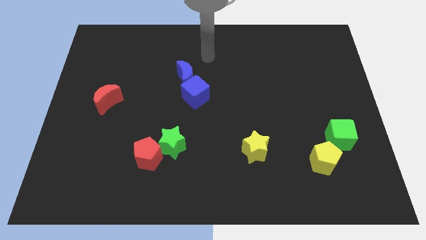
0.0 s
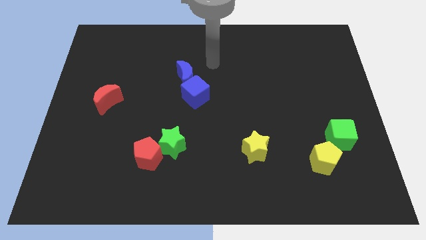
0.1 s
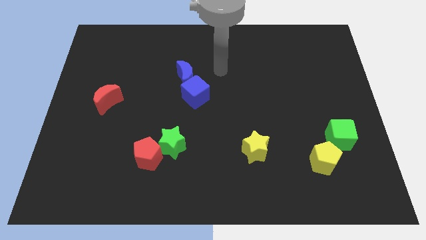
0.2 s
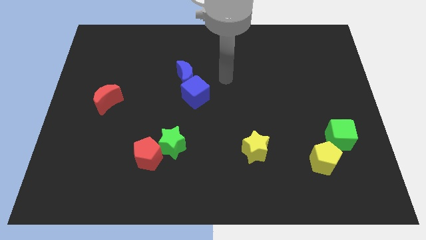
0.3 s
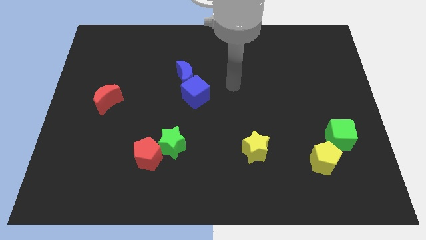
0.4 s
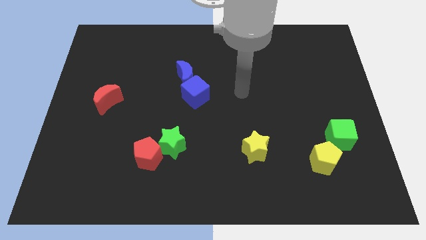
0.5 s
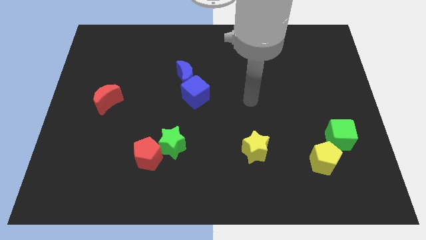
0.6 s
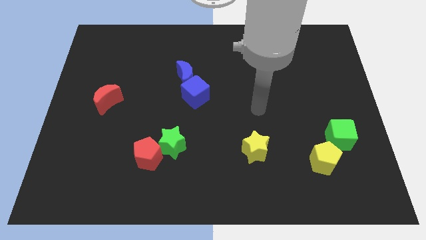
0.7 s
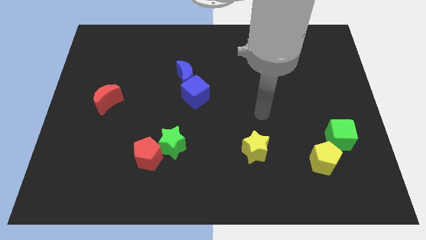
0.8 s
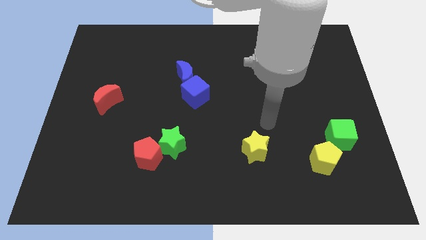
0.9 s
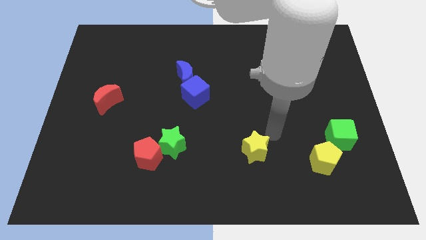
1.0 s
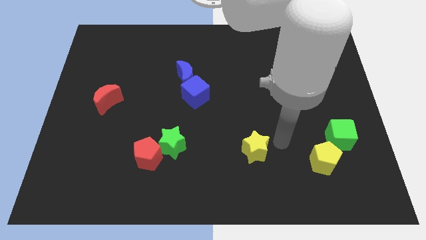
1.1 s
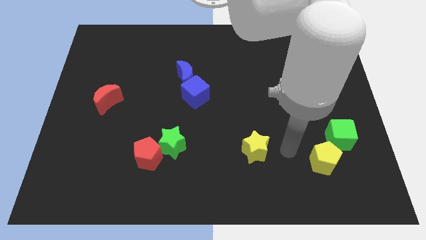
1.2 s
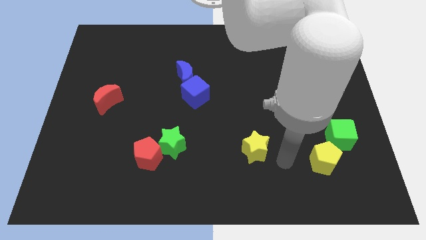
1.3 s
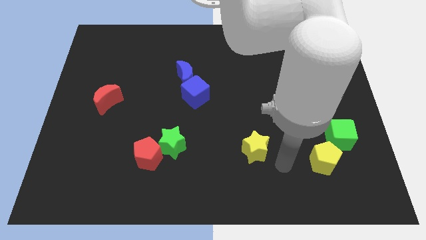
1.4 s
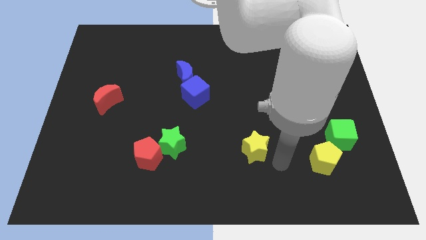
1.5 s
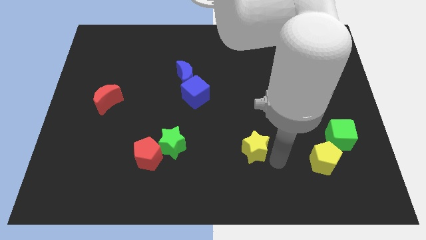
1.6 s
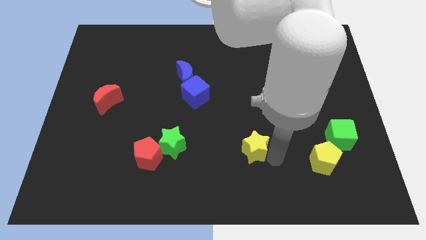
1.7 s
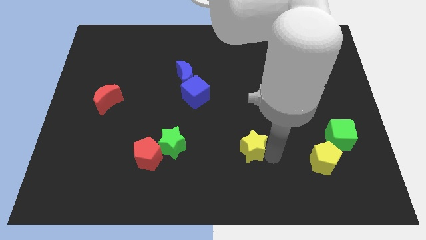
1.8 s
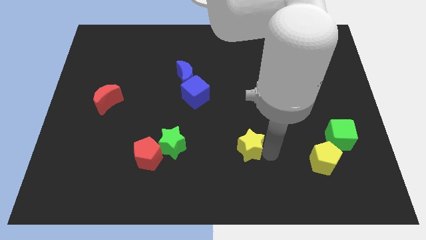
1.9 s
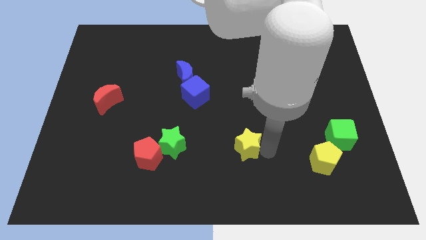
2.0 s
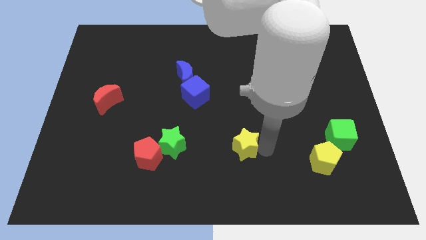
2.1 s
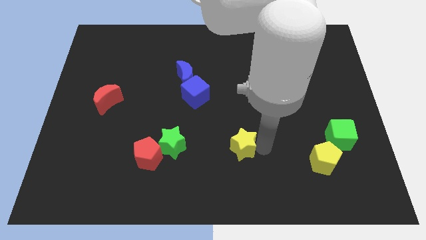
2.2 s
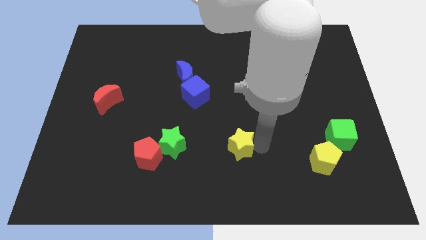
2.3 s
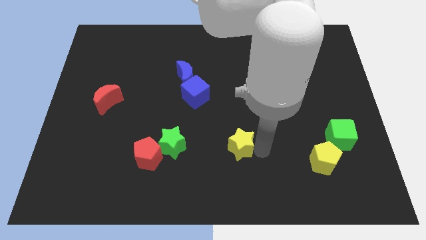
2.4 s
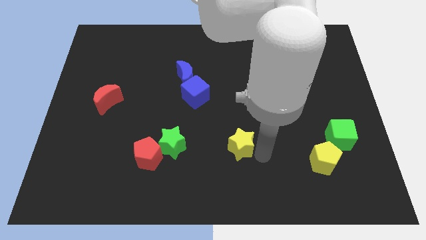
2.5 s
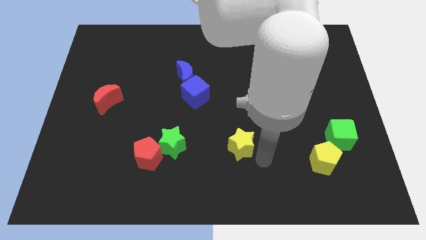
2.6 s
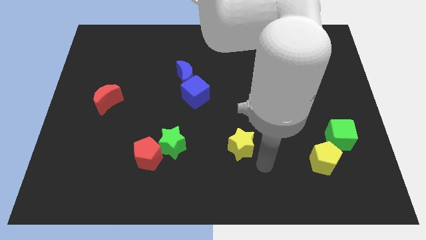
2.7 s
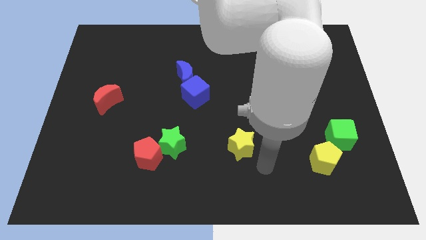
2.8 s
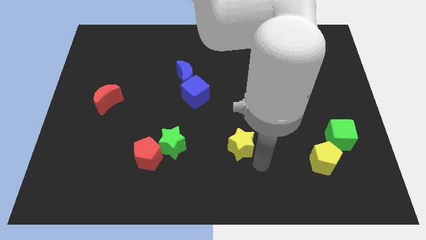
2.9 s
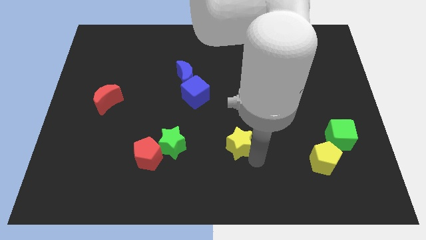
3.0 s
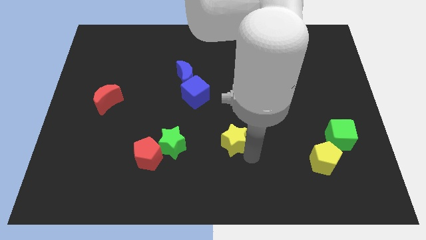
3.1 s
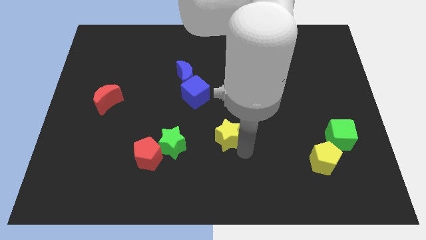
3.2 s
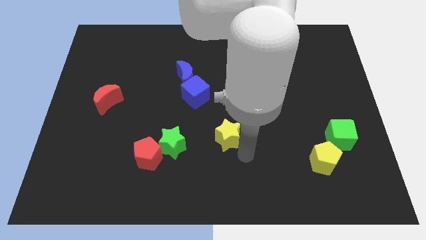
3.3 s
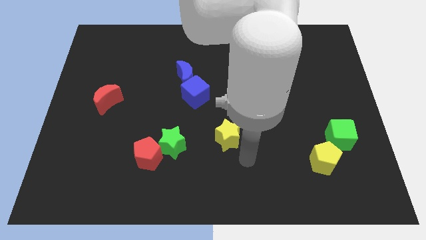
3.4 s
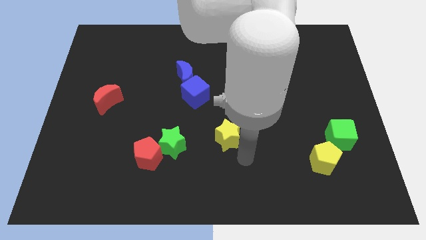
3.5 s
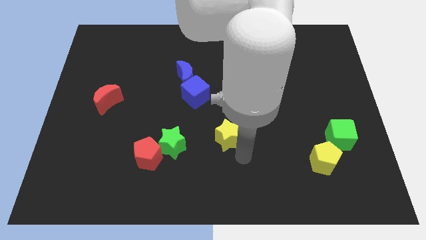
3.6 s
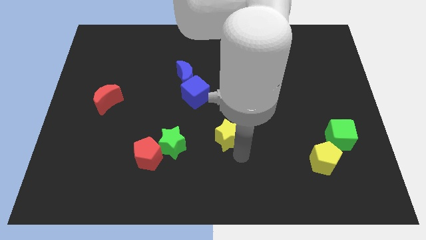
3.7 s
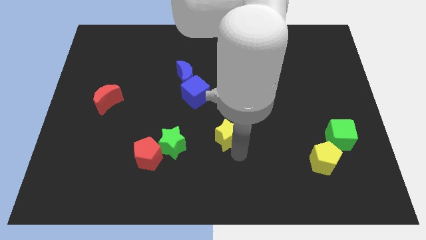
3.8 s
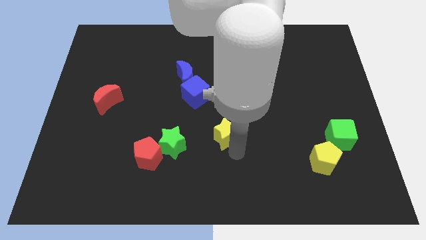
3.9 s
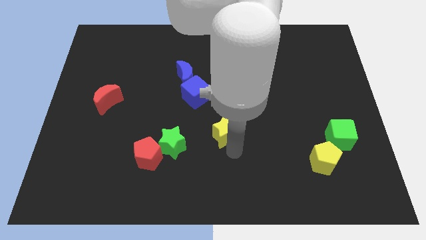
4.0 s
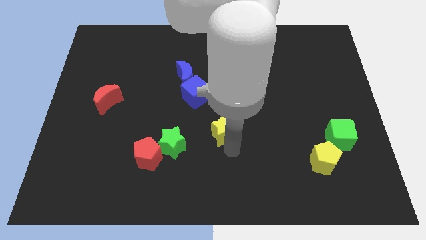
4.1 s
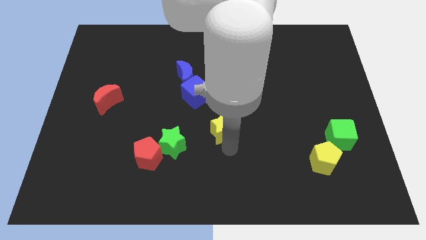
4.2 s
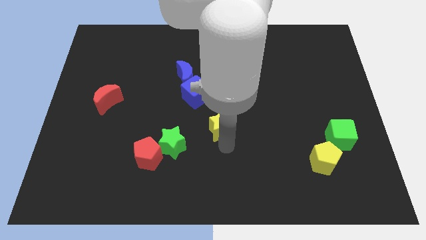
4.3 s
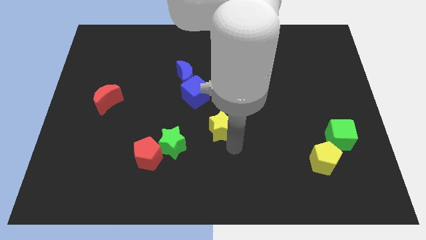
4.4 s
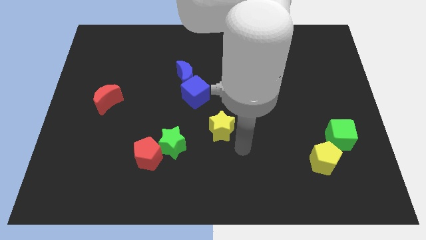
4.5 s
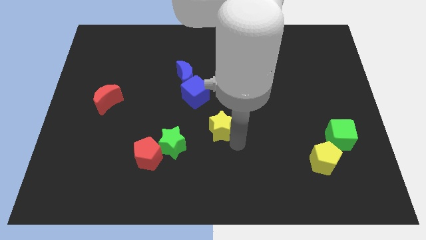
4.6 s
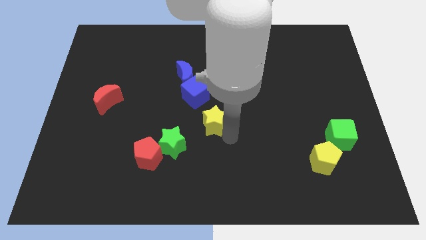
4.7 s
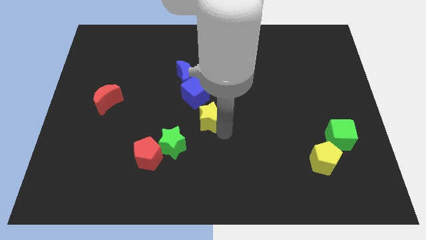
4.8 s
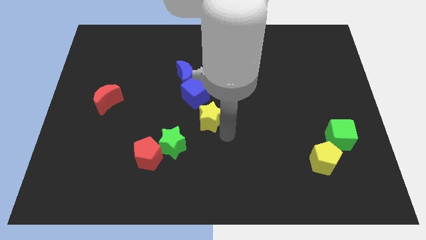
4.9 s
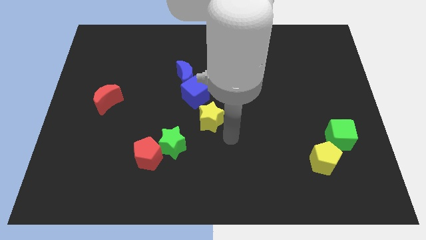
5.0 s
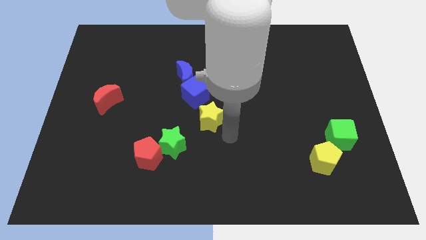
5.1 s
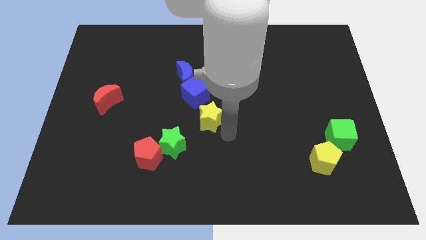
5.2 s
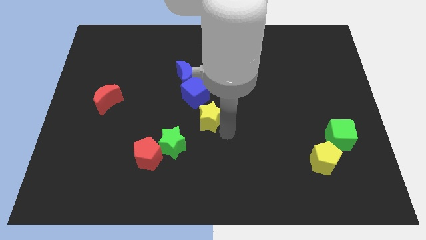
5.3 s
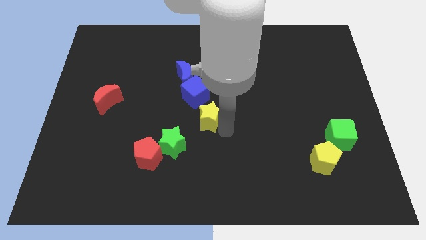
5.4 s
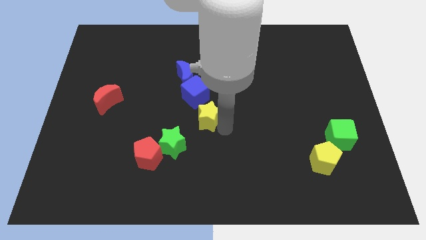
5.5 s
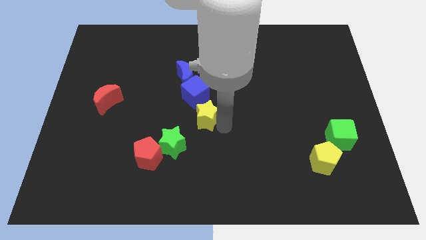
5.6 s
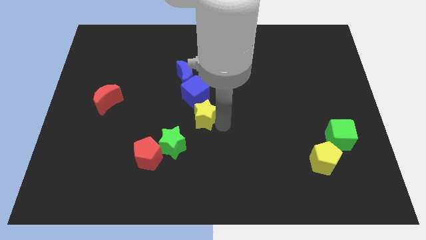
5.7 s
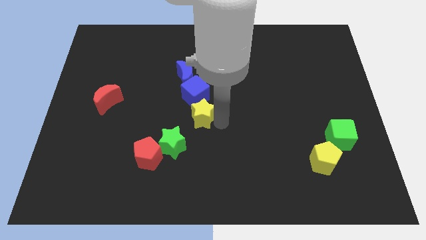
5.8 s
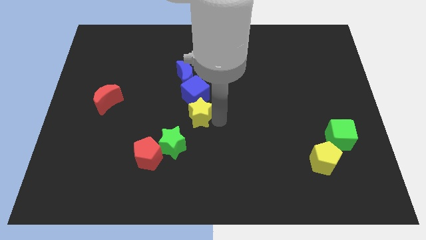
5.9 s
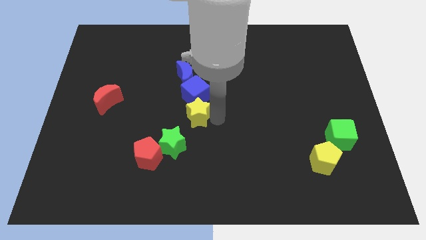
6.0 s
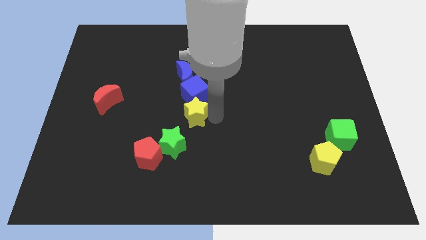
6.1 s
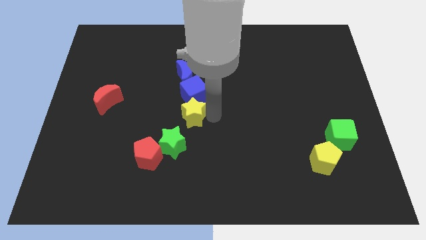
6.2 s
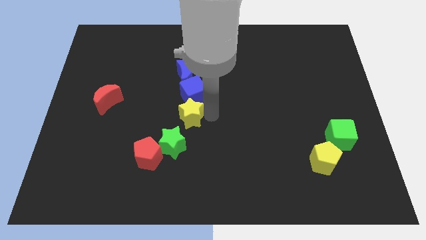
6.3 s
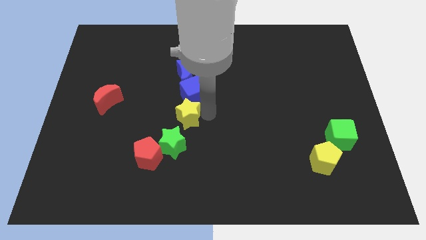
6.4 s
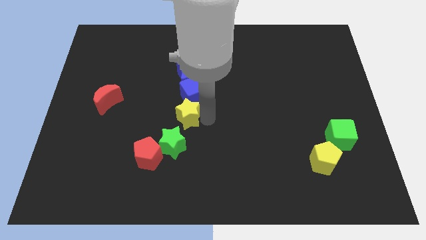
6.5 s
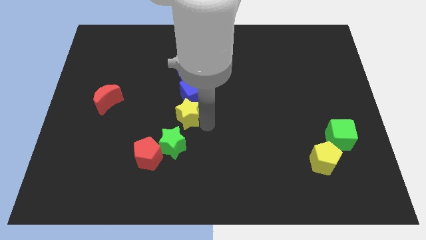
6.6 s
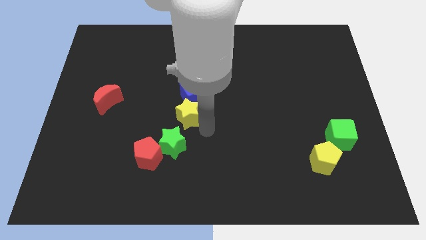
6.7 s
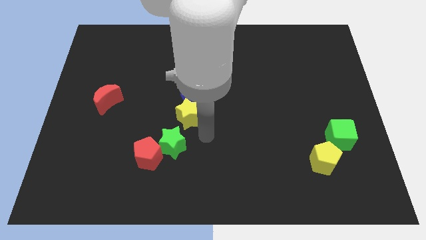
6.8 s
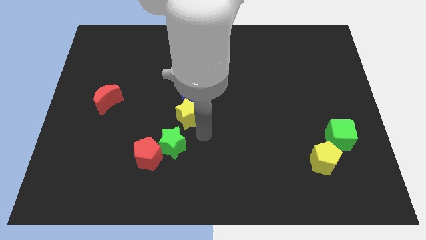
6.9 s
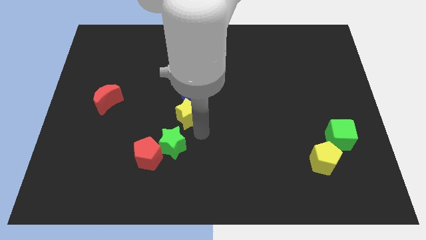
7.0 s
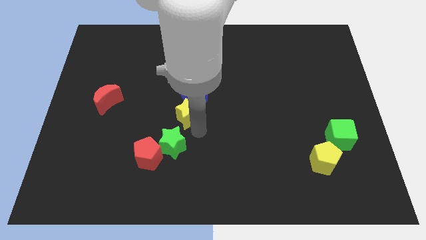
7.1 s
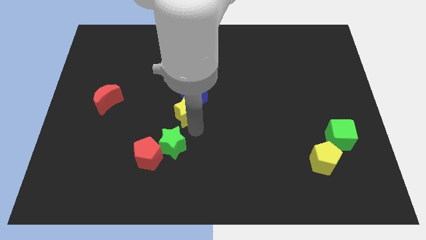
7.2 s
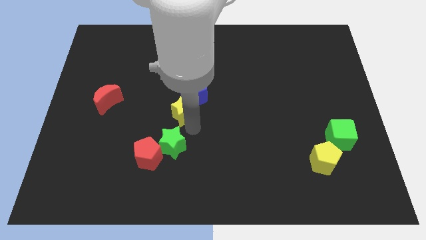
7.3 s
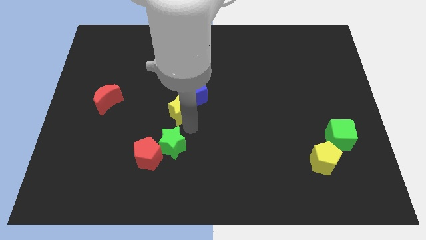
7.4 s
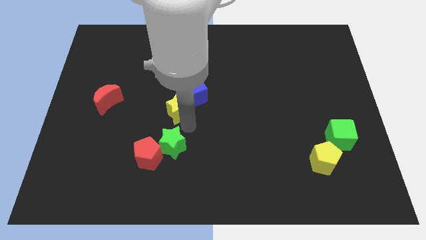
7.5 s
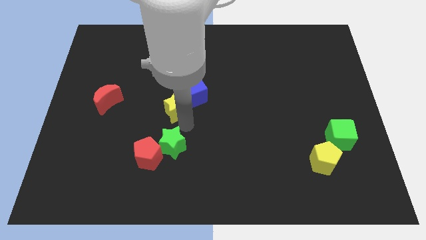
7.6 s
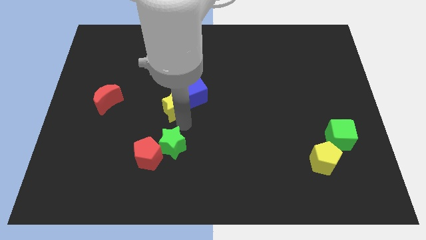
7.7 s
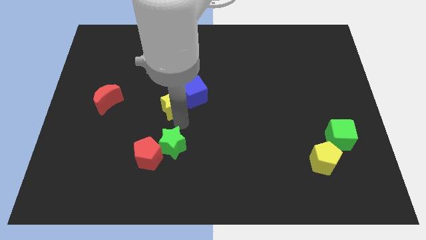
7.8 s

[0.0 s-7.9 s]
slide the yellow star up and left
